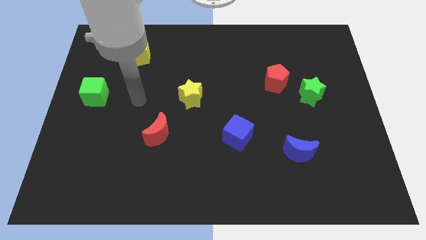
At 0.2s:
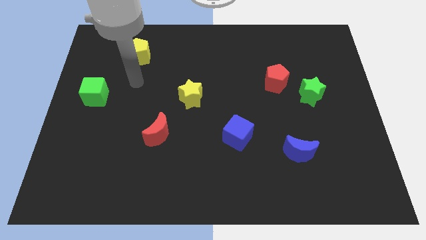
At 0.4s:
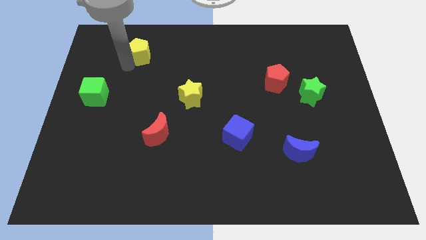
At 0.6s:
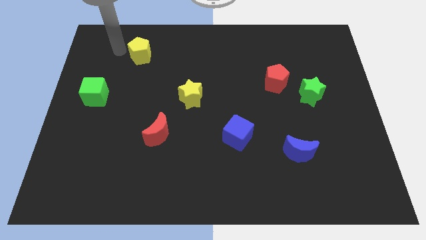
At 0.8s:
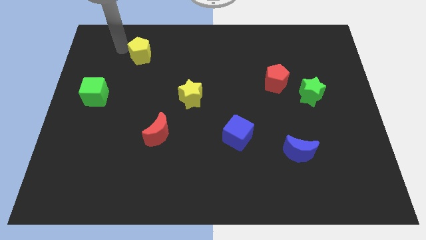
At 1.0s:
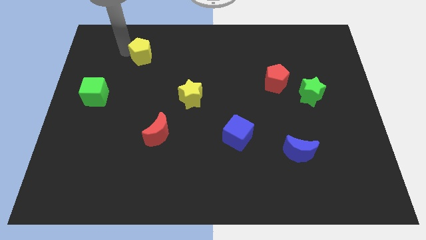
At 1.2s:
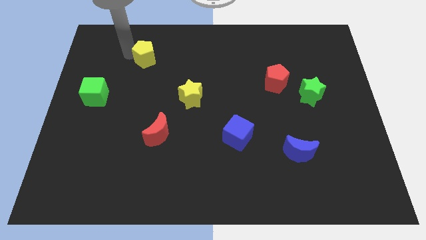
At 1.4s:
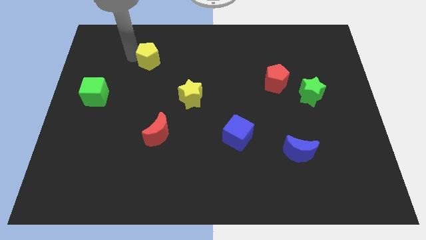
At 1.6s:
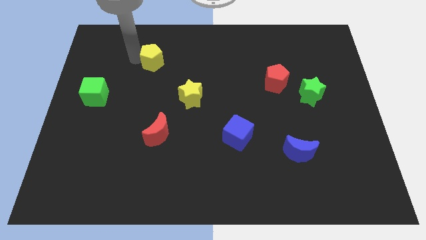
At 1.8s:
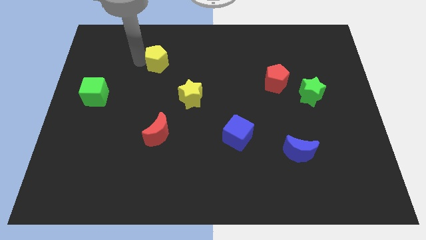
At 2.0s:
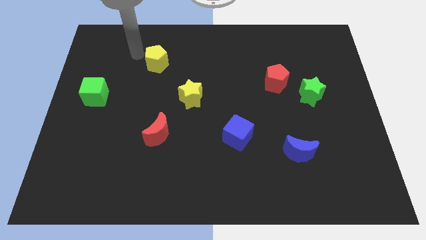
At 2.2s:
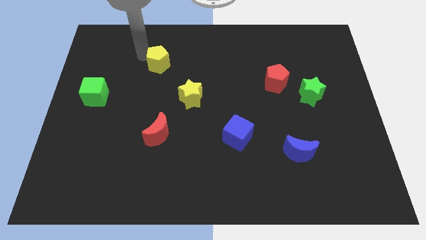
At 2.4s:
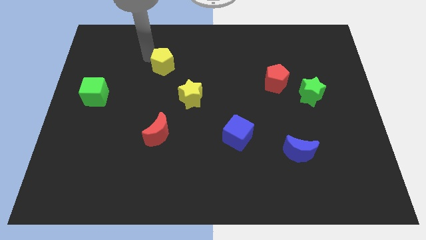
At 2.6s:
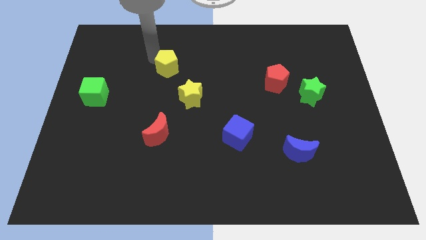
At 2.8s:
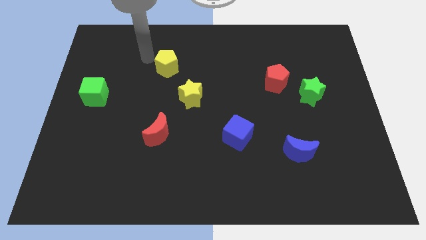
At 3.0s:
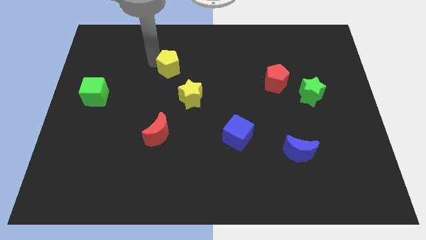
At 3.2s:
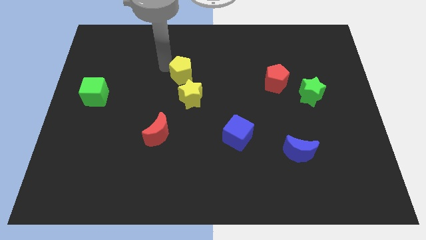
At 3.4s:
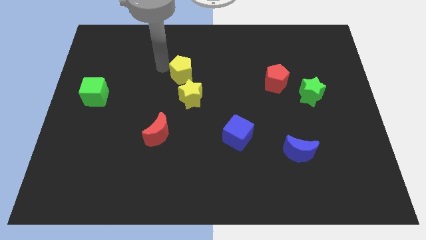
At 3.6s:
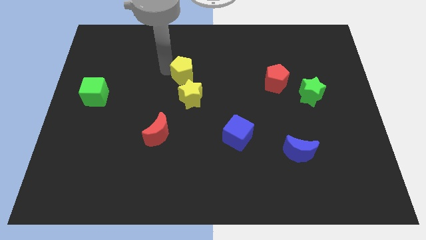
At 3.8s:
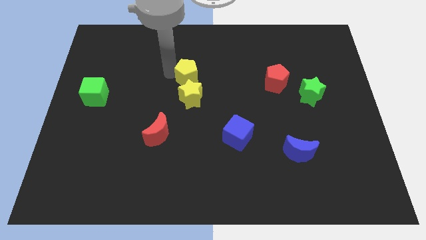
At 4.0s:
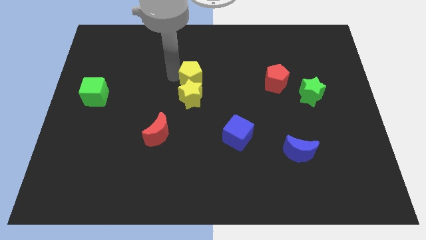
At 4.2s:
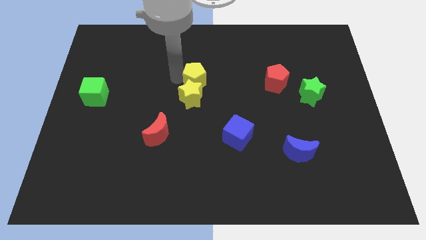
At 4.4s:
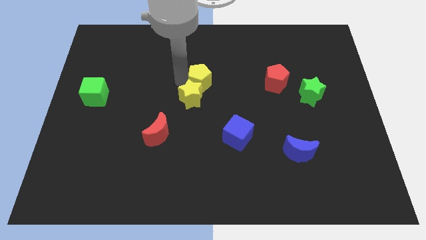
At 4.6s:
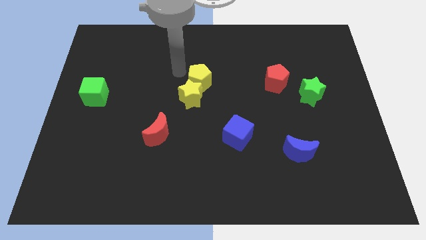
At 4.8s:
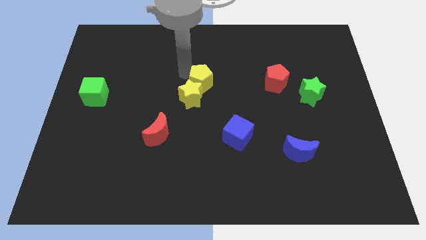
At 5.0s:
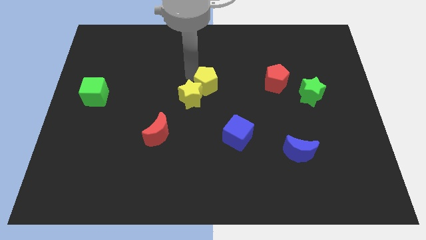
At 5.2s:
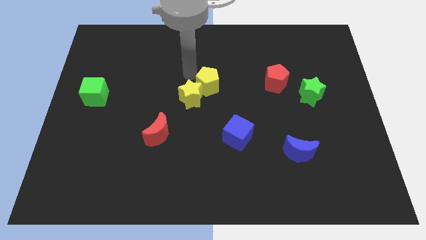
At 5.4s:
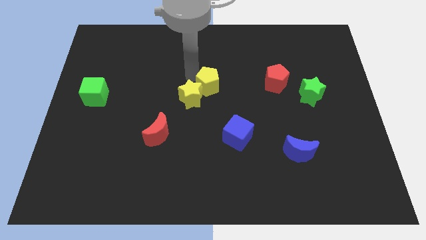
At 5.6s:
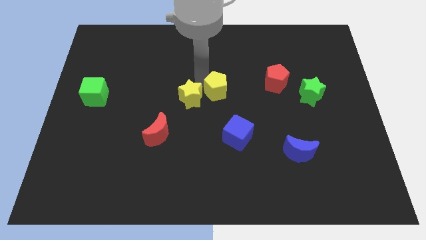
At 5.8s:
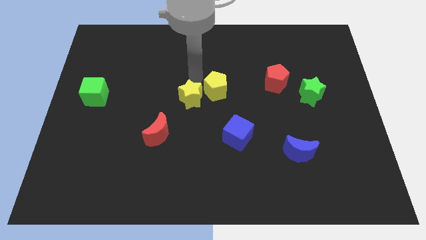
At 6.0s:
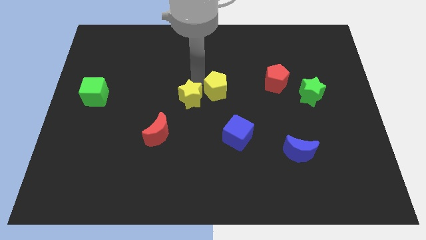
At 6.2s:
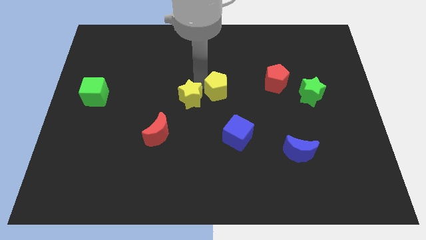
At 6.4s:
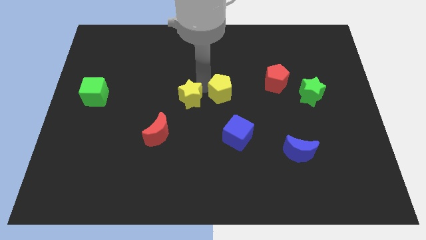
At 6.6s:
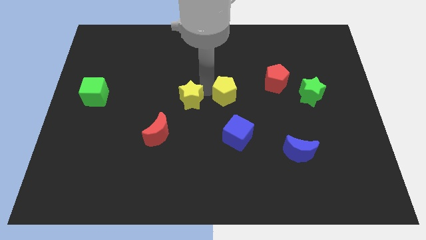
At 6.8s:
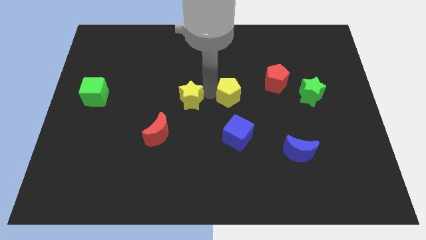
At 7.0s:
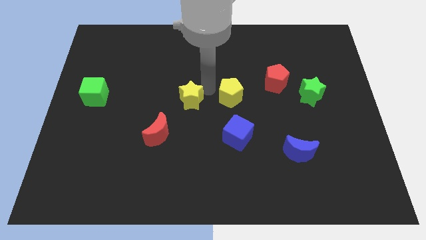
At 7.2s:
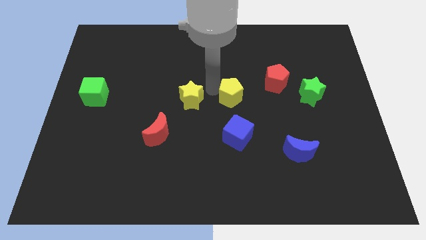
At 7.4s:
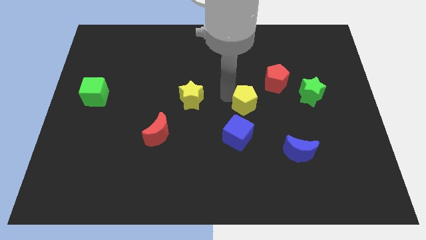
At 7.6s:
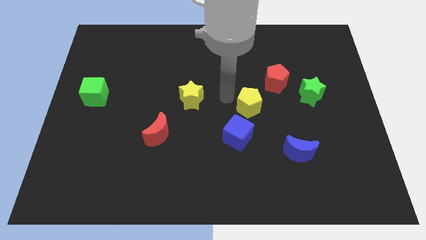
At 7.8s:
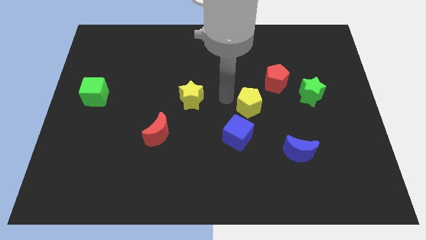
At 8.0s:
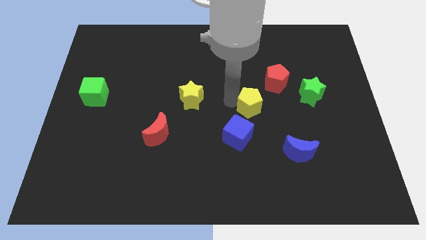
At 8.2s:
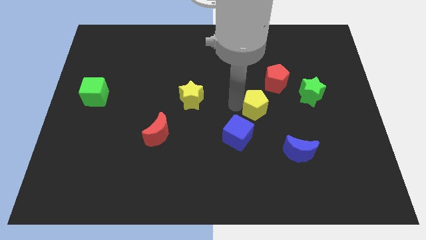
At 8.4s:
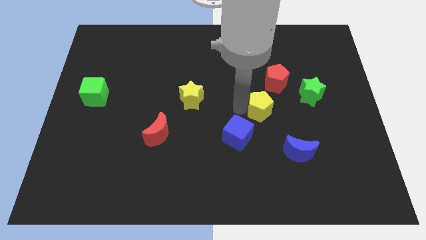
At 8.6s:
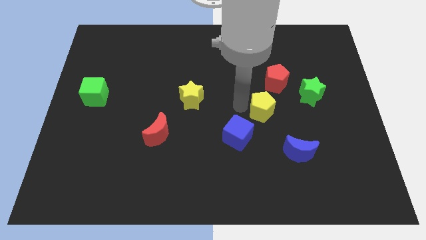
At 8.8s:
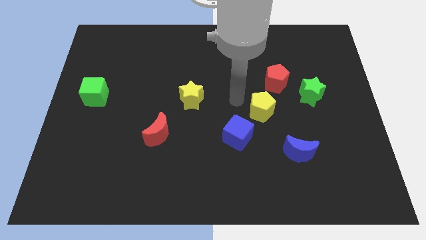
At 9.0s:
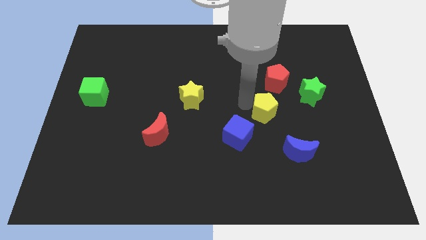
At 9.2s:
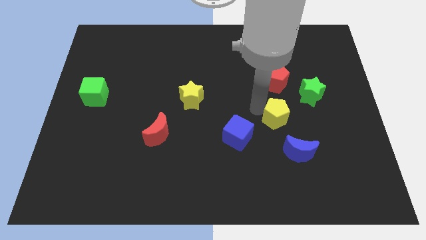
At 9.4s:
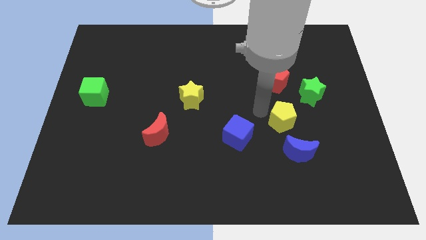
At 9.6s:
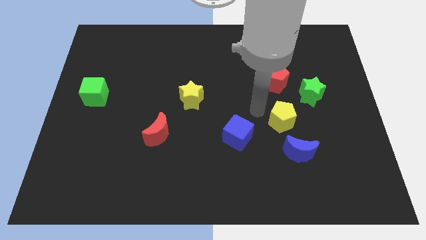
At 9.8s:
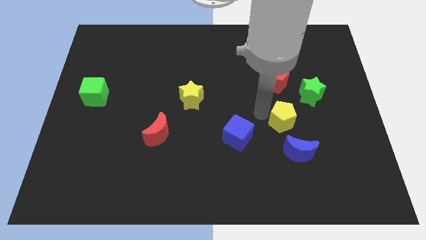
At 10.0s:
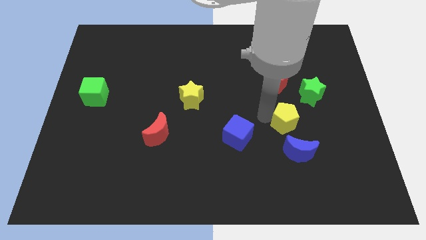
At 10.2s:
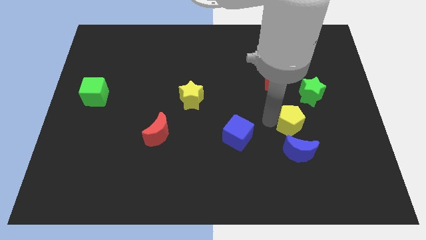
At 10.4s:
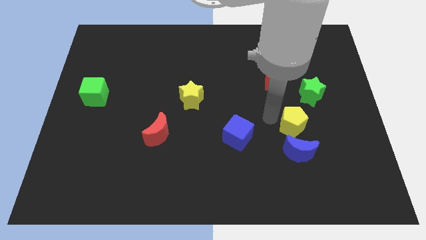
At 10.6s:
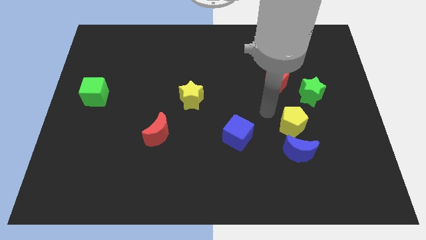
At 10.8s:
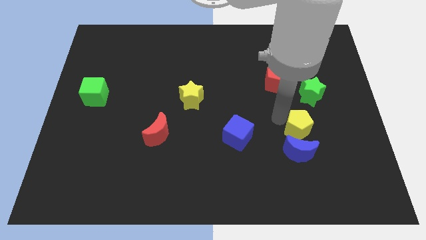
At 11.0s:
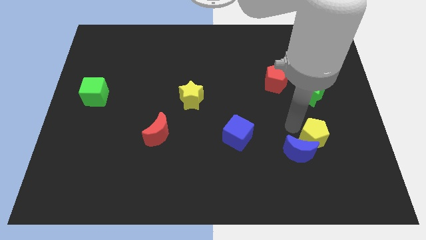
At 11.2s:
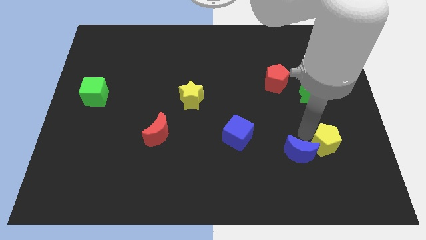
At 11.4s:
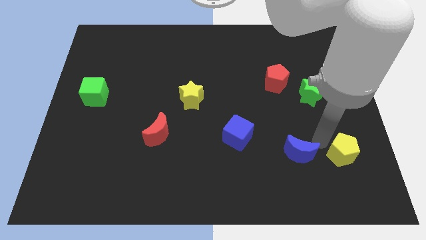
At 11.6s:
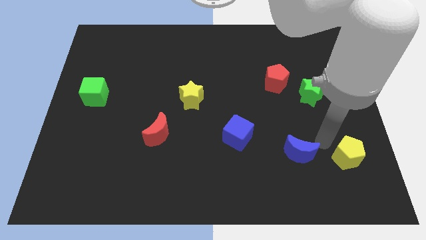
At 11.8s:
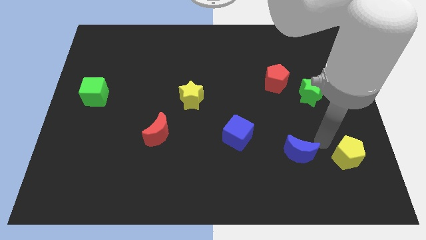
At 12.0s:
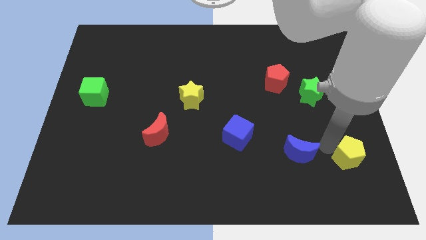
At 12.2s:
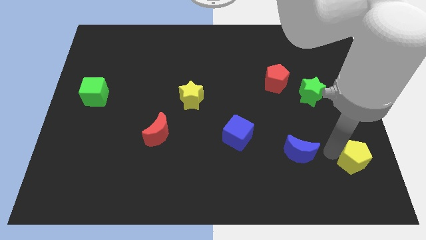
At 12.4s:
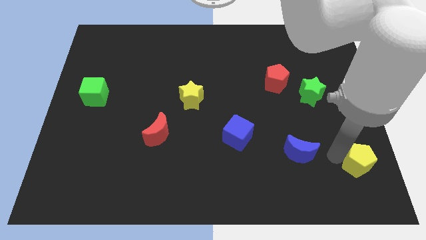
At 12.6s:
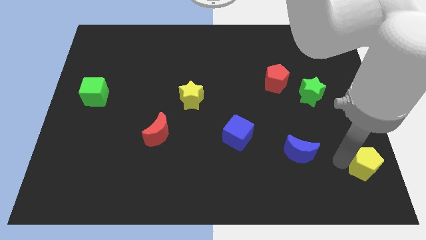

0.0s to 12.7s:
put the yellow pentagon to the bottom right

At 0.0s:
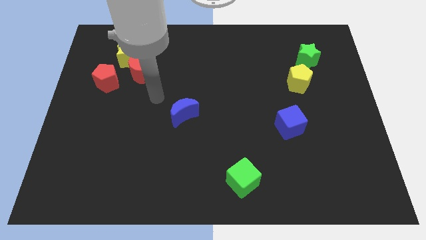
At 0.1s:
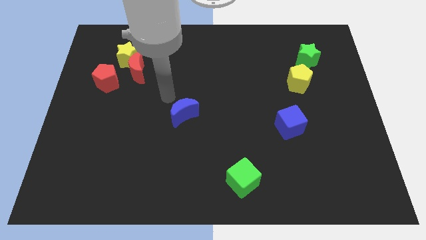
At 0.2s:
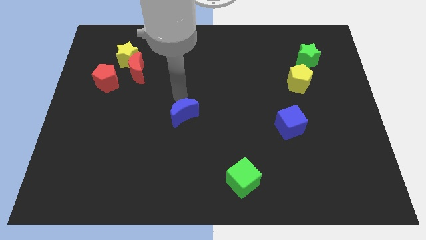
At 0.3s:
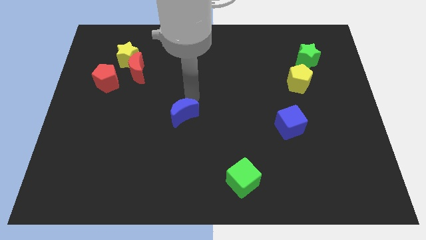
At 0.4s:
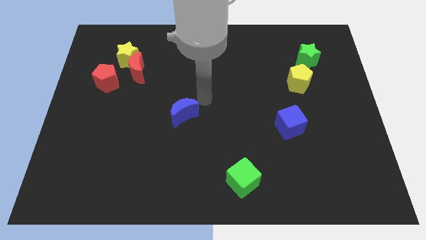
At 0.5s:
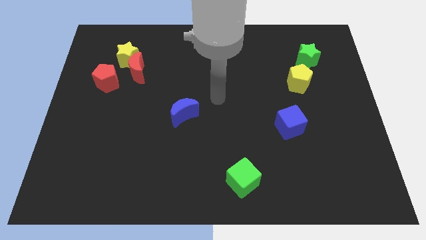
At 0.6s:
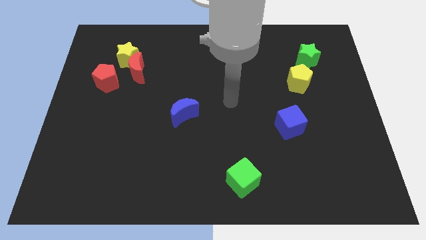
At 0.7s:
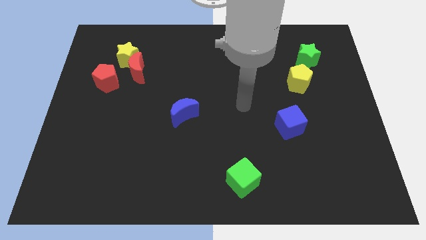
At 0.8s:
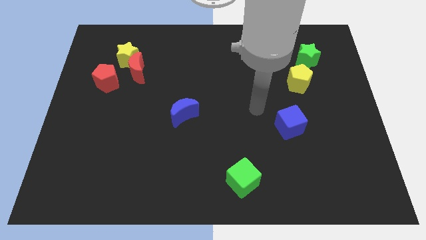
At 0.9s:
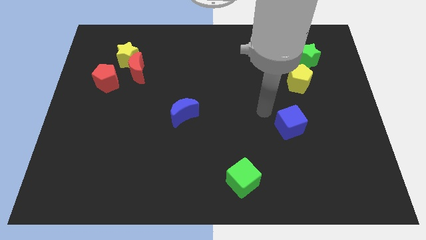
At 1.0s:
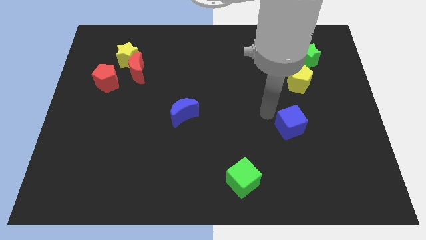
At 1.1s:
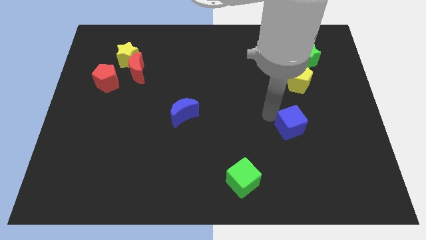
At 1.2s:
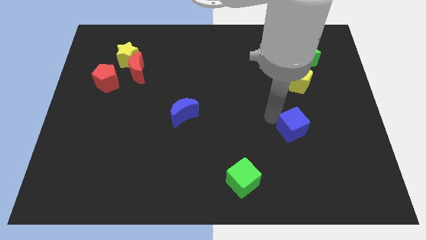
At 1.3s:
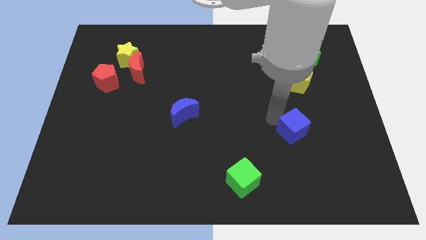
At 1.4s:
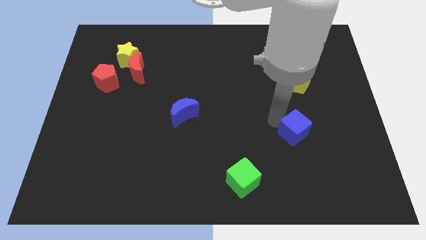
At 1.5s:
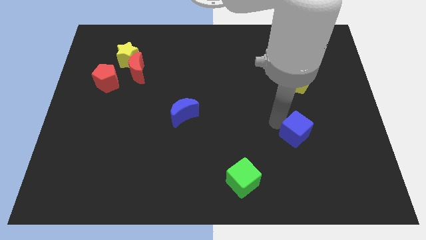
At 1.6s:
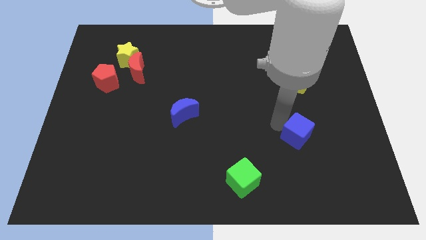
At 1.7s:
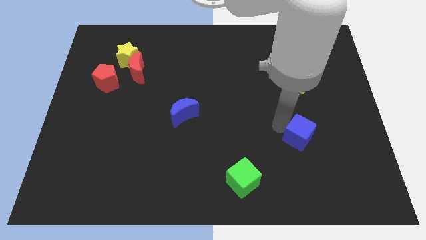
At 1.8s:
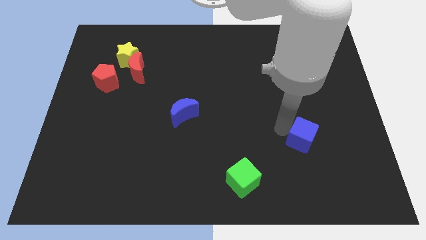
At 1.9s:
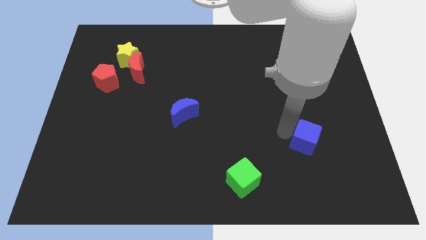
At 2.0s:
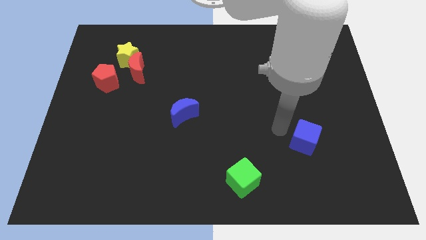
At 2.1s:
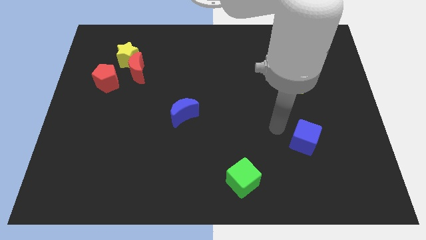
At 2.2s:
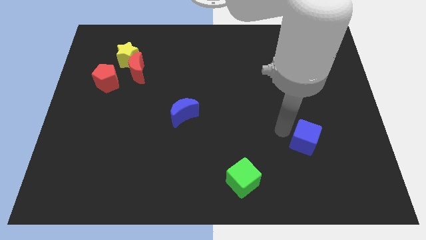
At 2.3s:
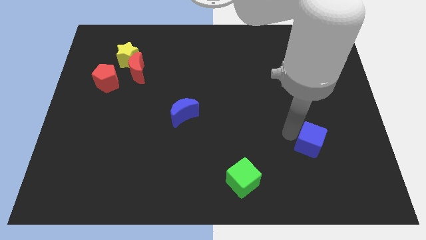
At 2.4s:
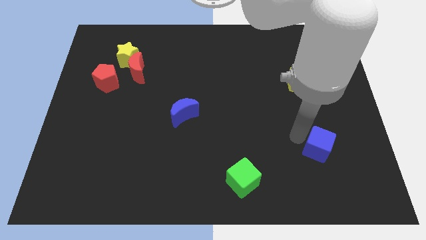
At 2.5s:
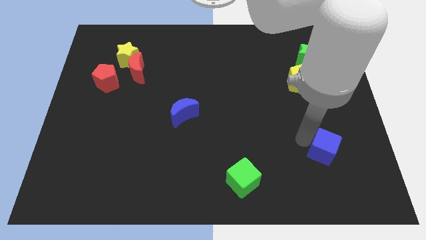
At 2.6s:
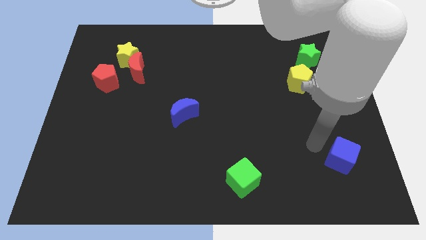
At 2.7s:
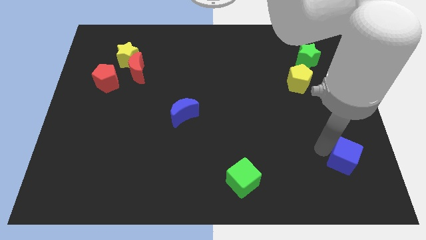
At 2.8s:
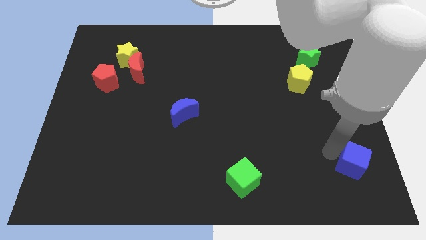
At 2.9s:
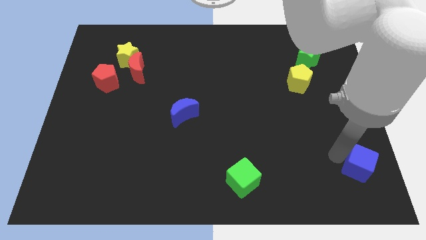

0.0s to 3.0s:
slide the blue cube to the bottom right of the board
